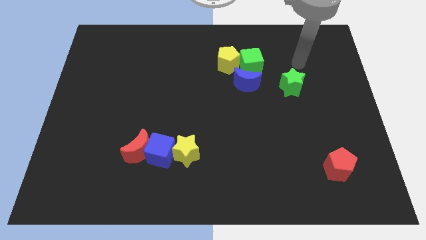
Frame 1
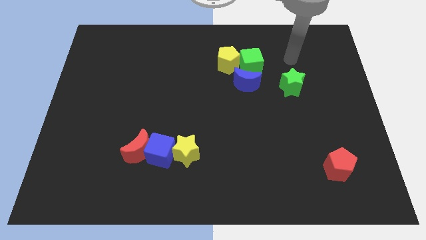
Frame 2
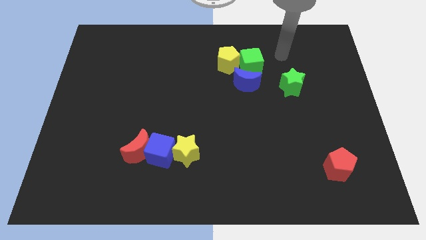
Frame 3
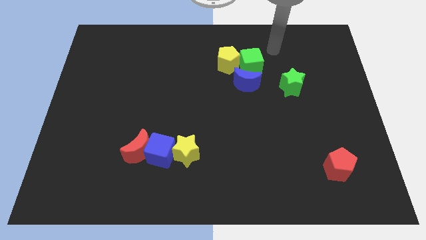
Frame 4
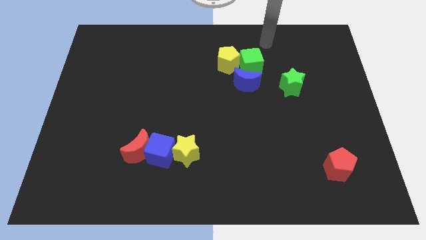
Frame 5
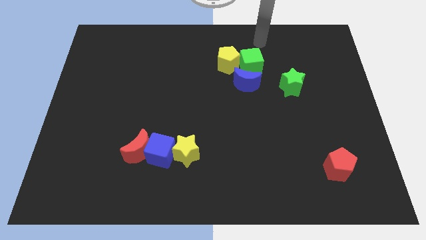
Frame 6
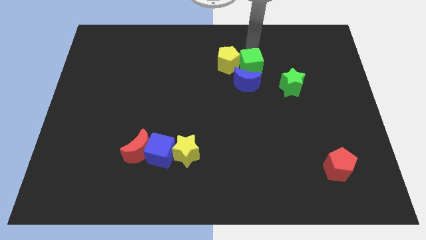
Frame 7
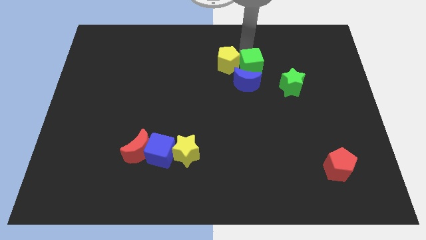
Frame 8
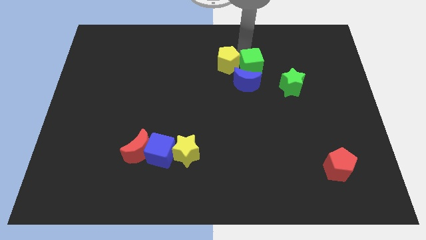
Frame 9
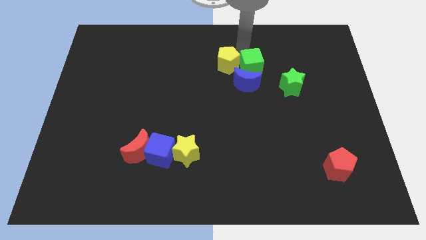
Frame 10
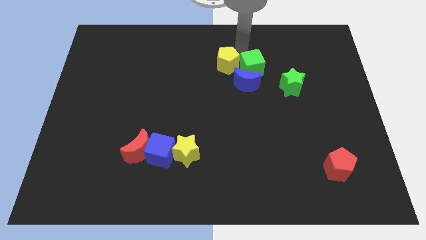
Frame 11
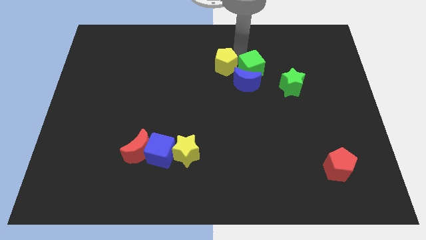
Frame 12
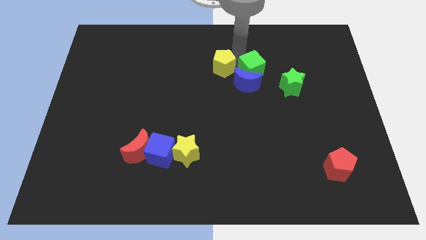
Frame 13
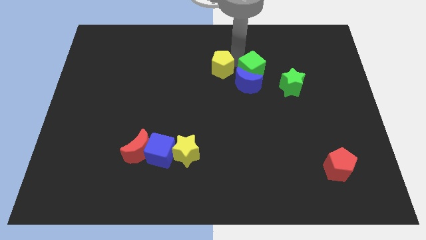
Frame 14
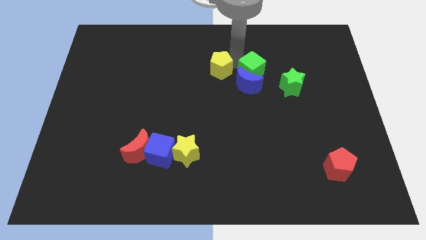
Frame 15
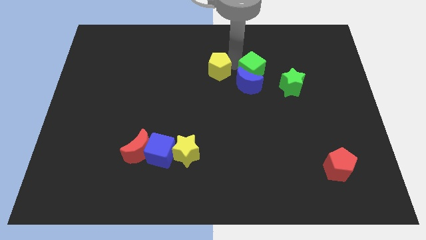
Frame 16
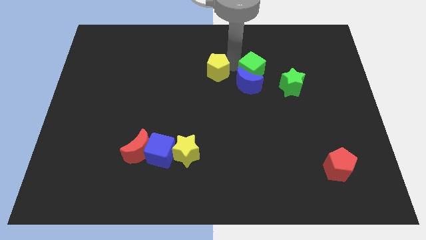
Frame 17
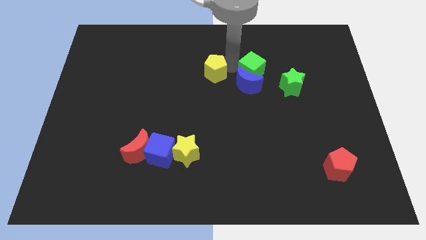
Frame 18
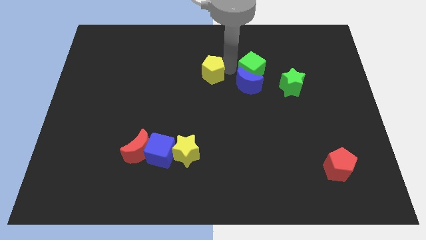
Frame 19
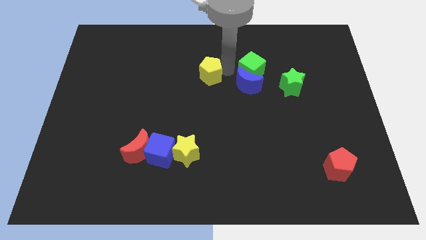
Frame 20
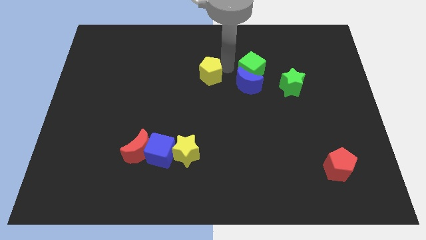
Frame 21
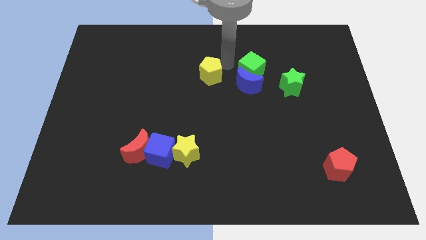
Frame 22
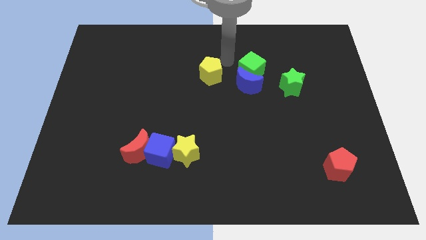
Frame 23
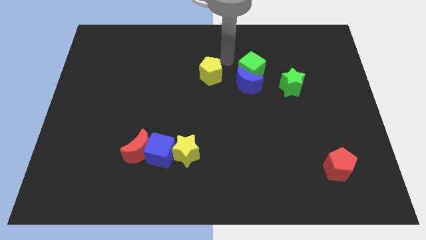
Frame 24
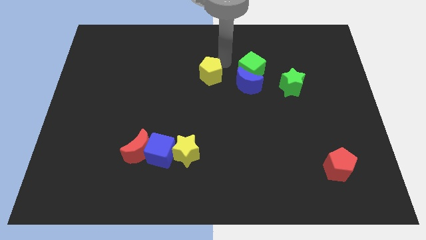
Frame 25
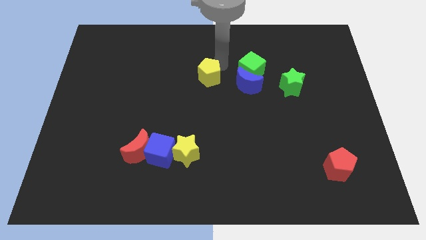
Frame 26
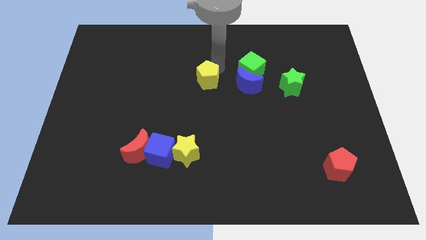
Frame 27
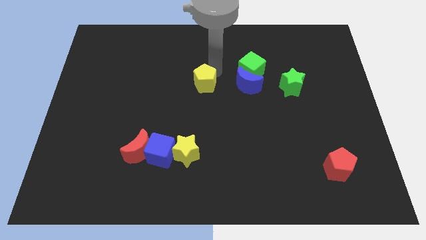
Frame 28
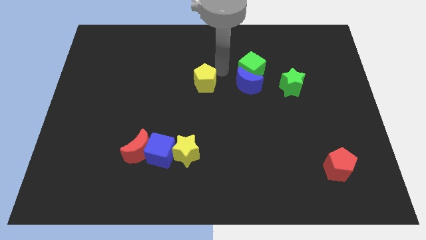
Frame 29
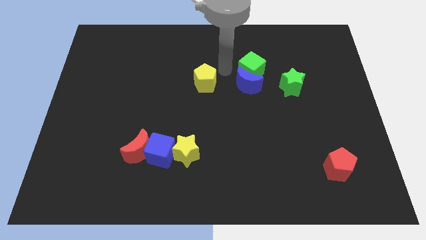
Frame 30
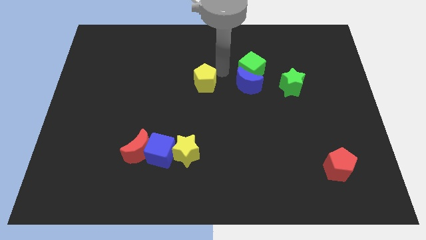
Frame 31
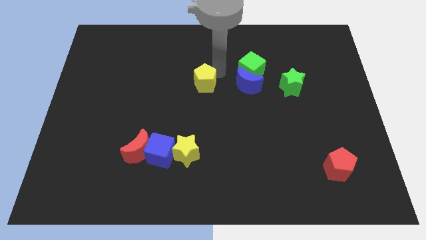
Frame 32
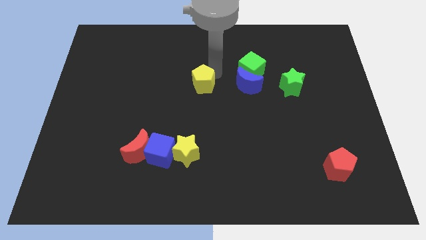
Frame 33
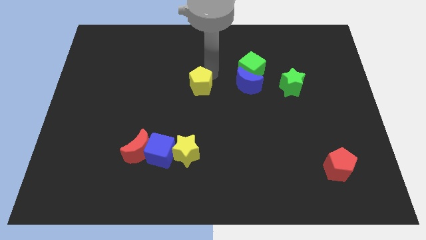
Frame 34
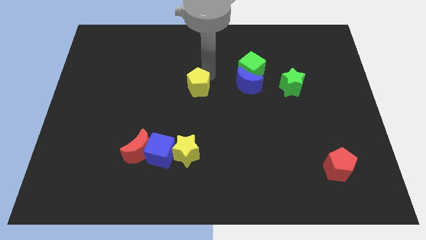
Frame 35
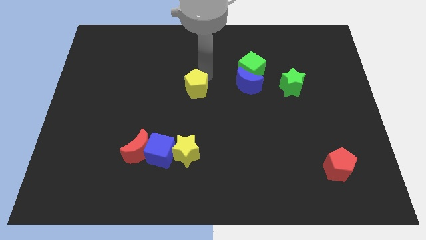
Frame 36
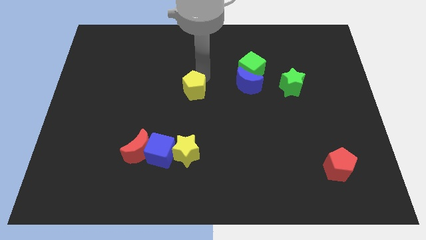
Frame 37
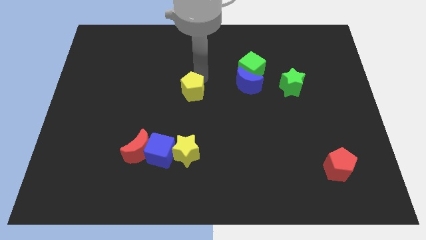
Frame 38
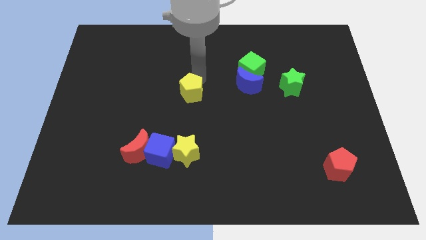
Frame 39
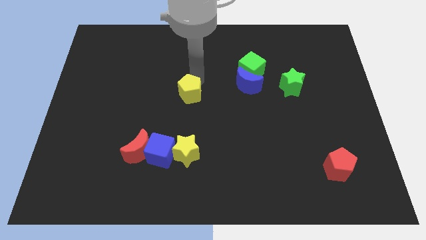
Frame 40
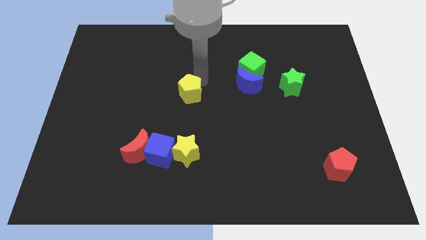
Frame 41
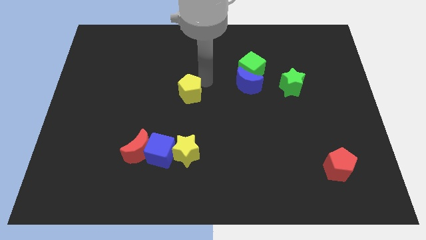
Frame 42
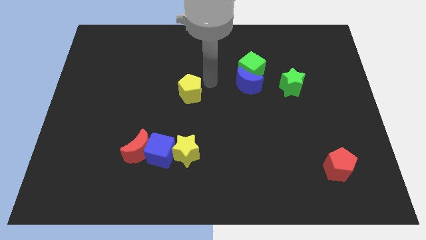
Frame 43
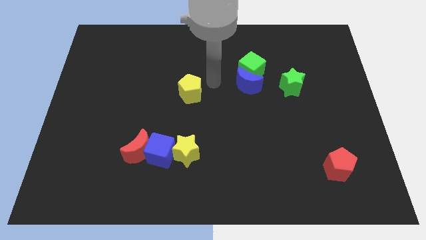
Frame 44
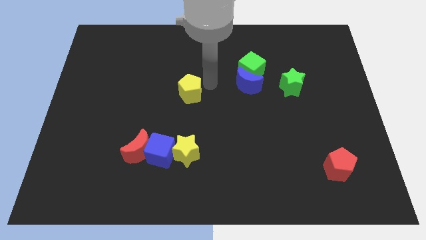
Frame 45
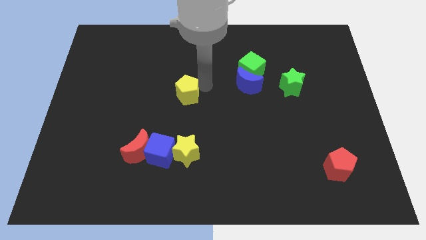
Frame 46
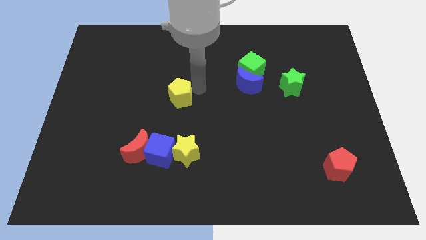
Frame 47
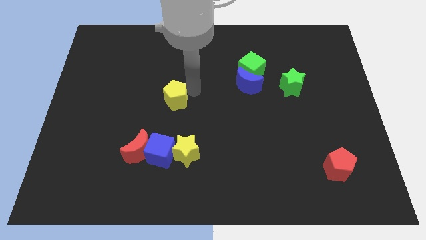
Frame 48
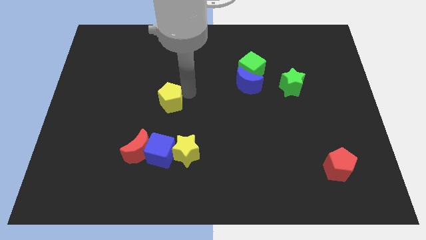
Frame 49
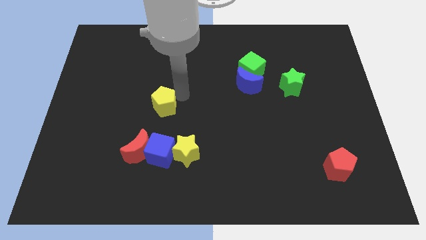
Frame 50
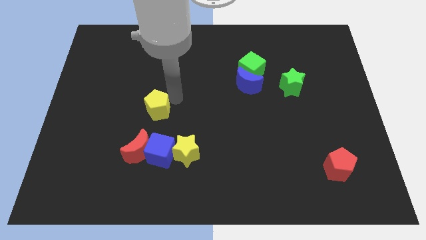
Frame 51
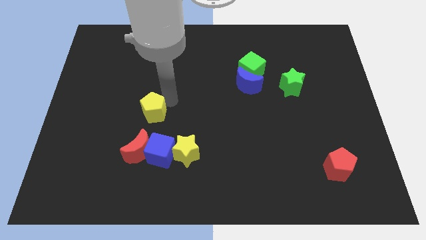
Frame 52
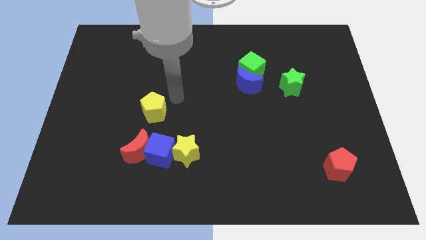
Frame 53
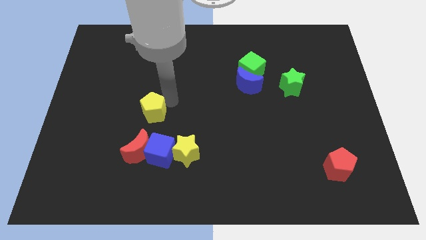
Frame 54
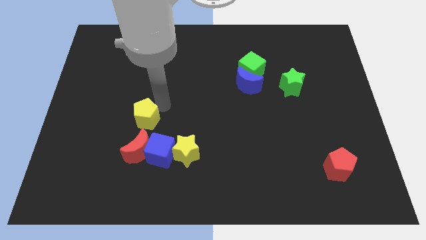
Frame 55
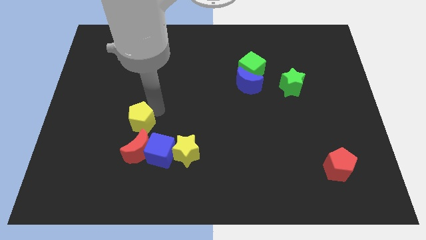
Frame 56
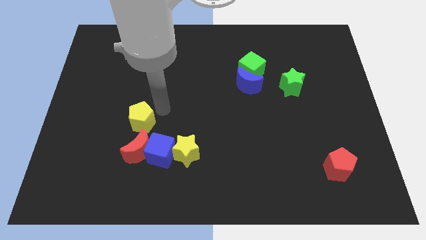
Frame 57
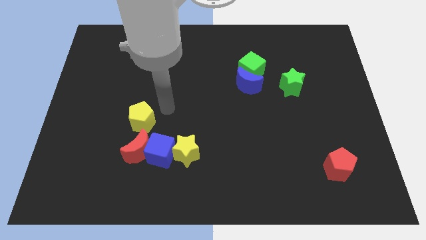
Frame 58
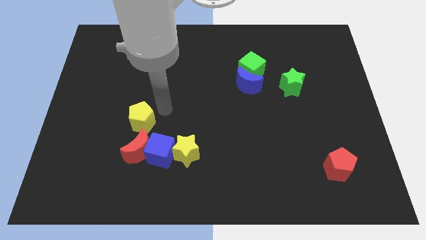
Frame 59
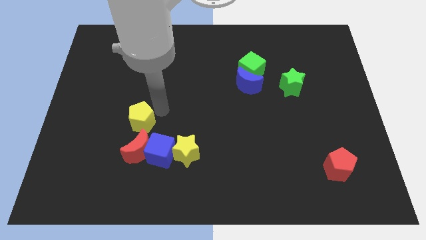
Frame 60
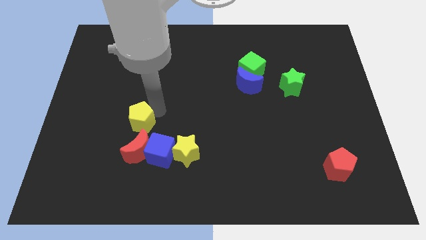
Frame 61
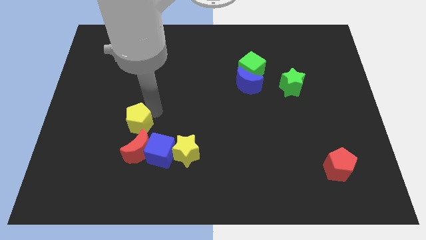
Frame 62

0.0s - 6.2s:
slide the yellow pentagon to the top left of the red moon

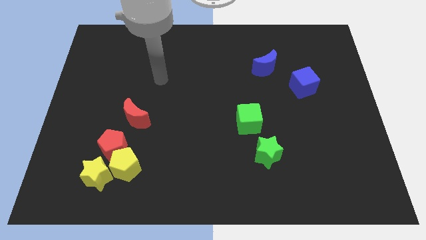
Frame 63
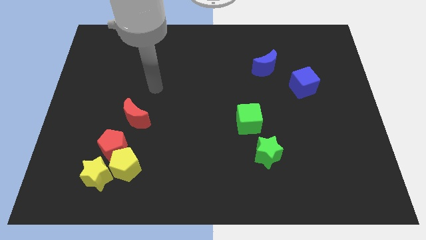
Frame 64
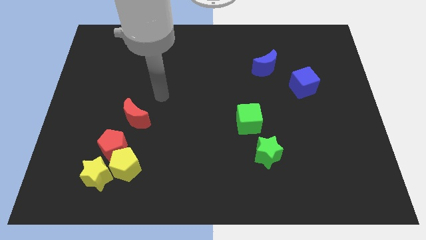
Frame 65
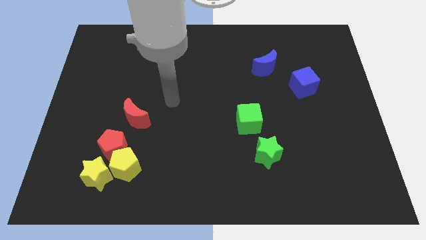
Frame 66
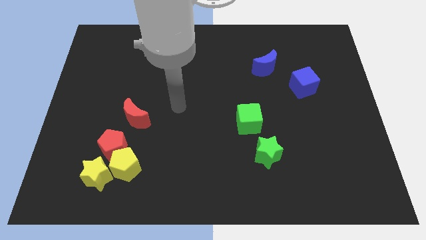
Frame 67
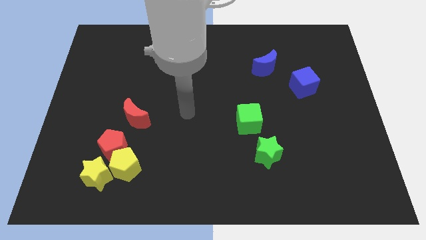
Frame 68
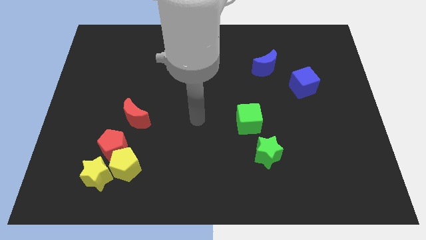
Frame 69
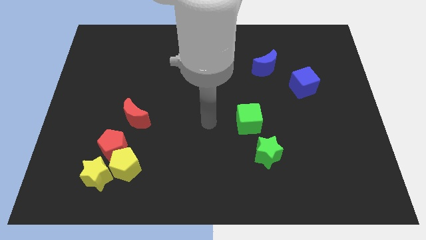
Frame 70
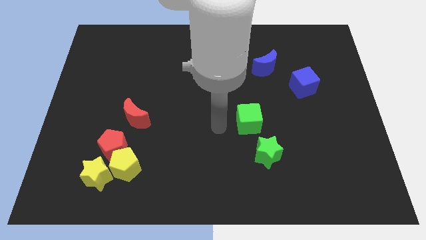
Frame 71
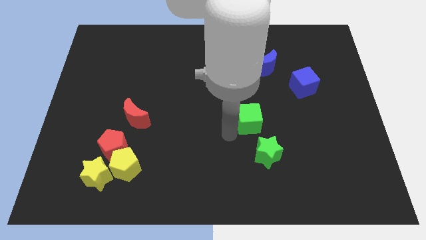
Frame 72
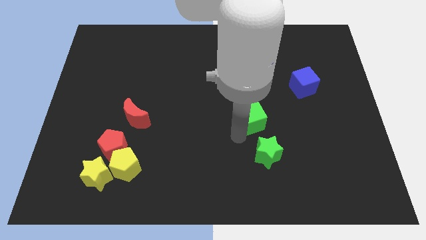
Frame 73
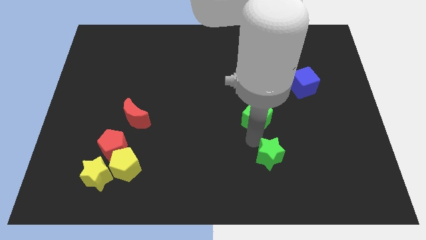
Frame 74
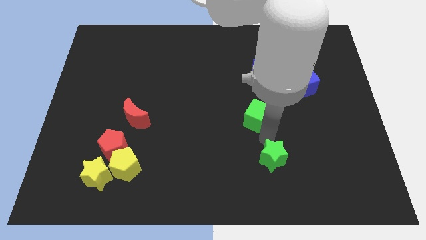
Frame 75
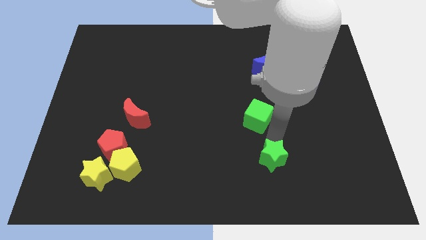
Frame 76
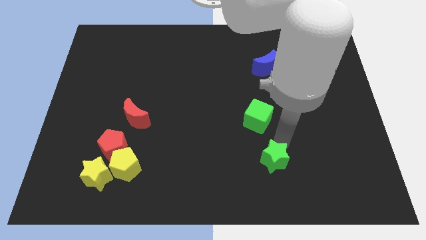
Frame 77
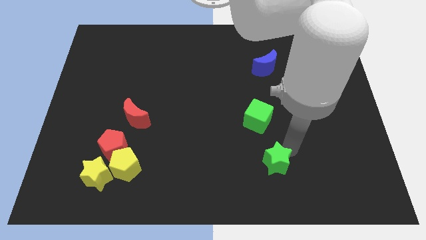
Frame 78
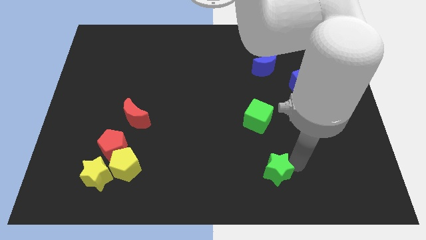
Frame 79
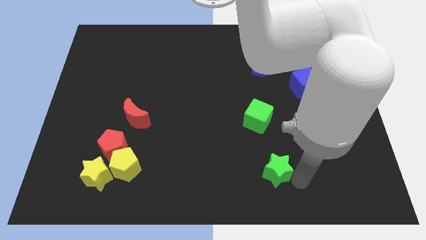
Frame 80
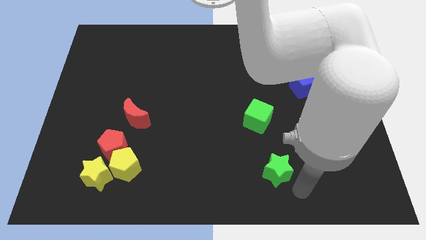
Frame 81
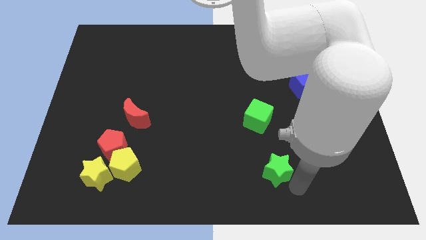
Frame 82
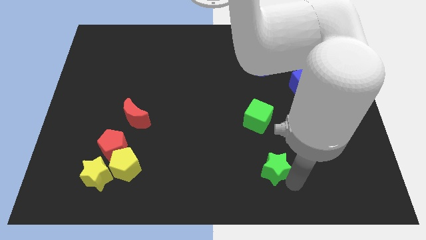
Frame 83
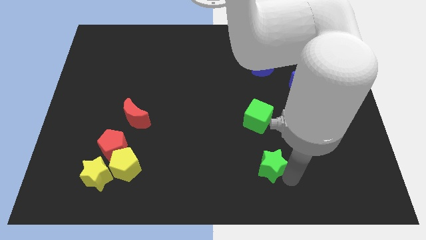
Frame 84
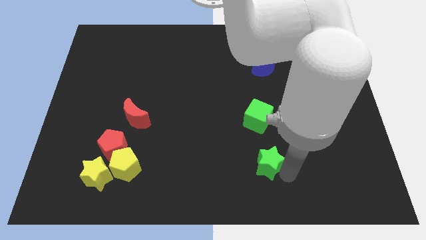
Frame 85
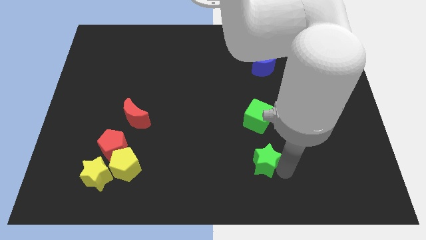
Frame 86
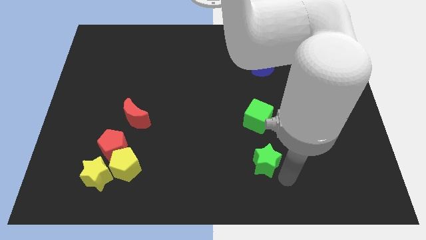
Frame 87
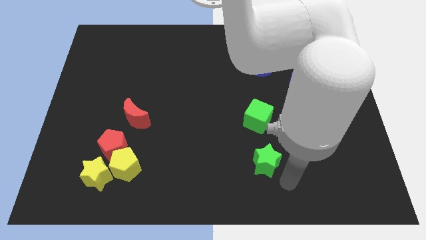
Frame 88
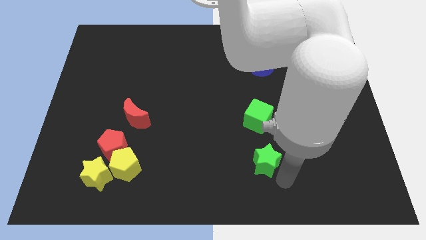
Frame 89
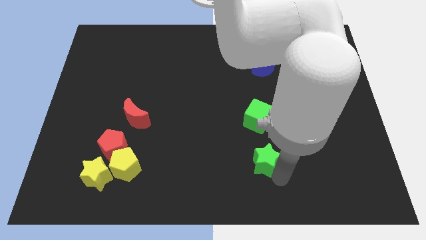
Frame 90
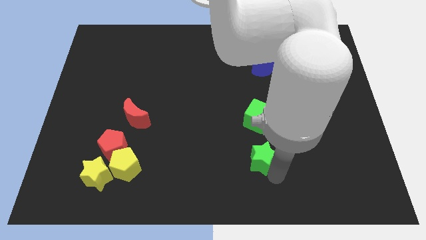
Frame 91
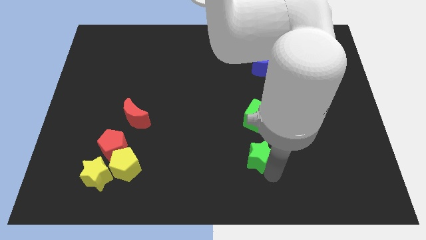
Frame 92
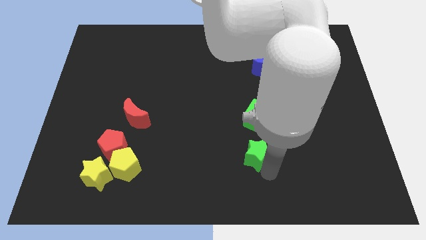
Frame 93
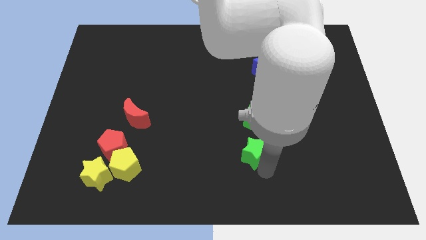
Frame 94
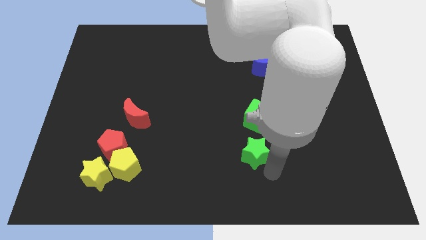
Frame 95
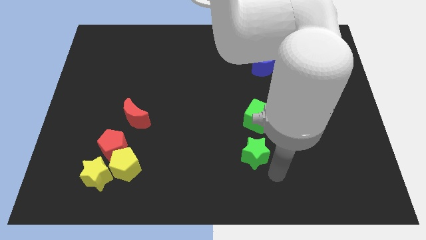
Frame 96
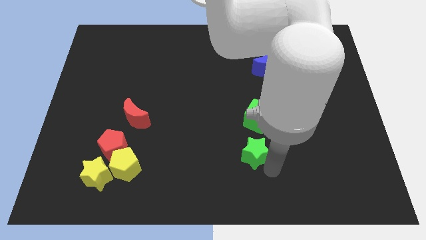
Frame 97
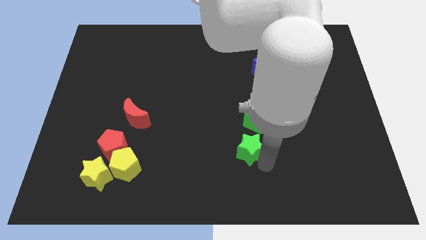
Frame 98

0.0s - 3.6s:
slide the green star to the bottom left side of the green cube
